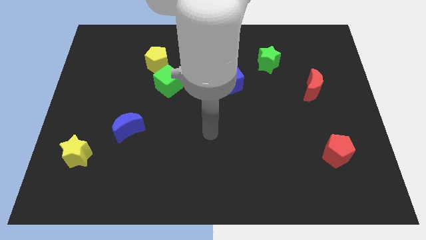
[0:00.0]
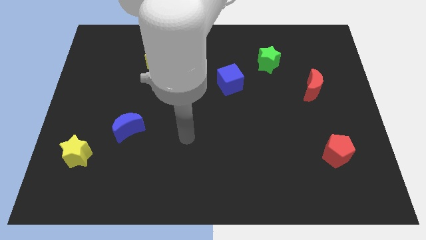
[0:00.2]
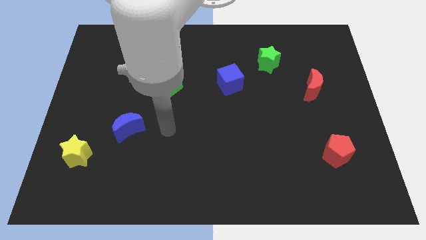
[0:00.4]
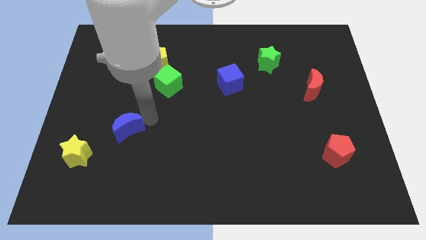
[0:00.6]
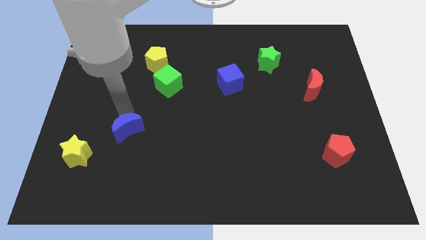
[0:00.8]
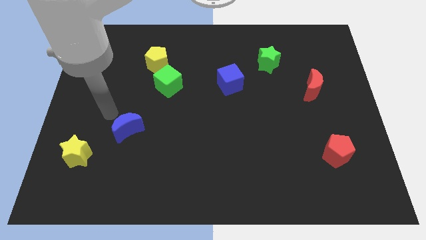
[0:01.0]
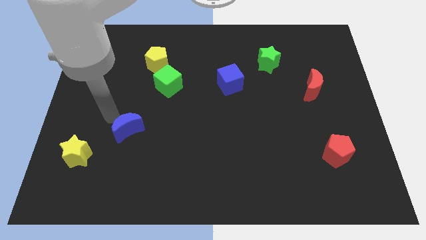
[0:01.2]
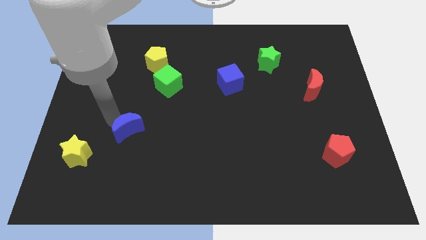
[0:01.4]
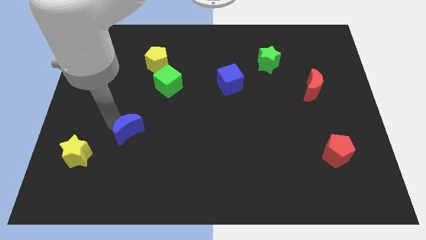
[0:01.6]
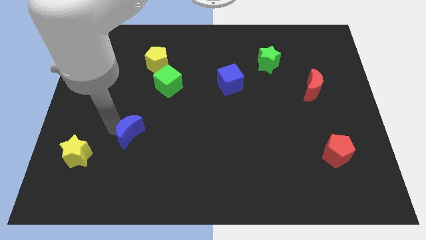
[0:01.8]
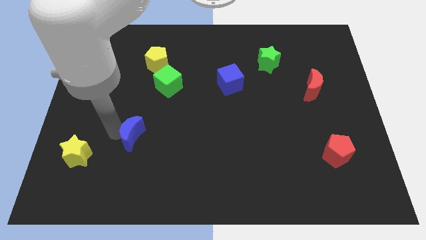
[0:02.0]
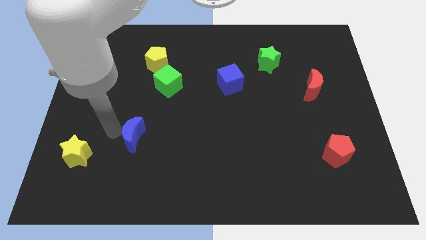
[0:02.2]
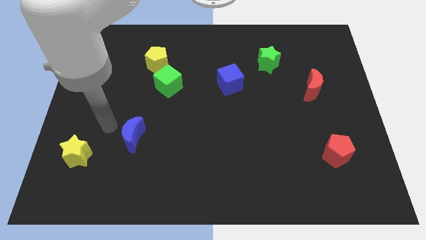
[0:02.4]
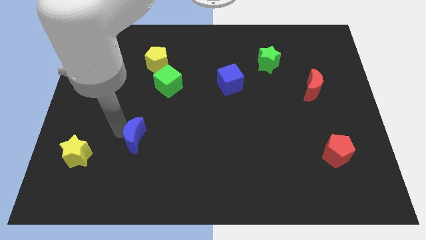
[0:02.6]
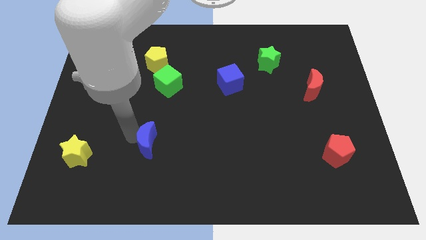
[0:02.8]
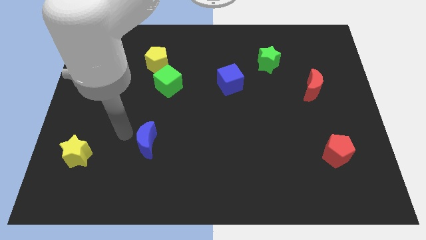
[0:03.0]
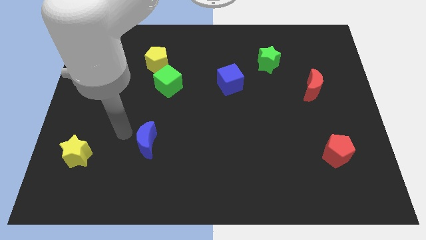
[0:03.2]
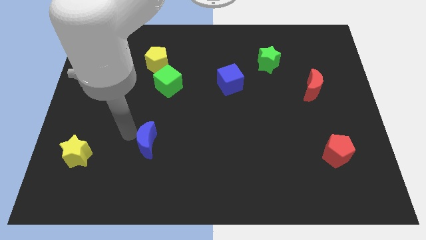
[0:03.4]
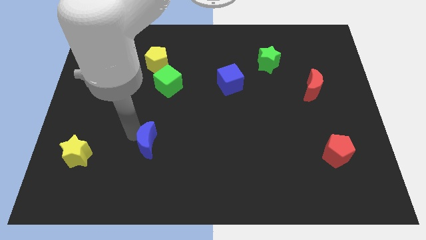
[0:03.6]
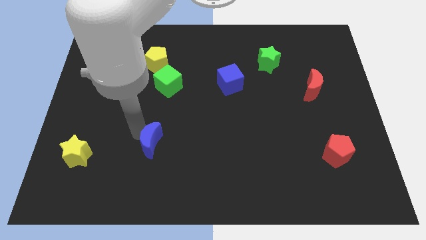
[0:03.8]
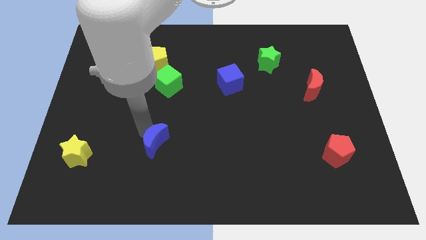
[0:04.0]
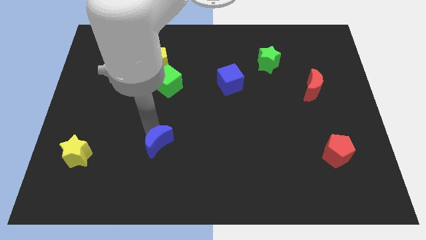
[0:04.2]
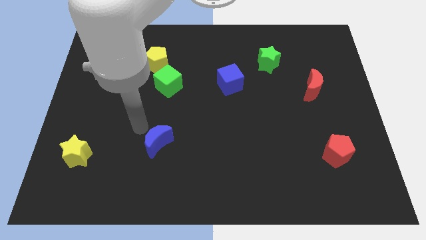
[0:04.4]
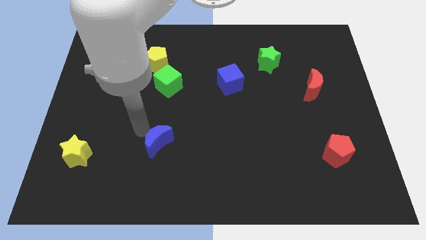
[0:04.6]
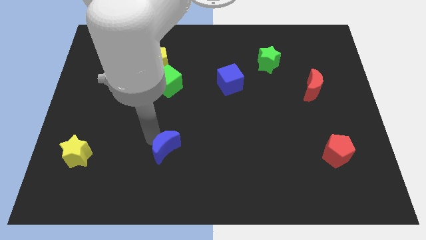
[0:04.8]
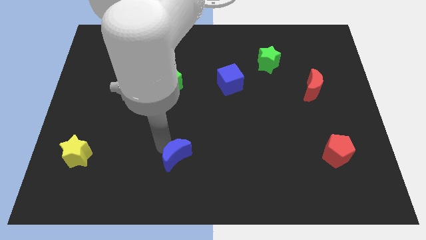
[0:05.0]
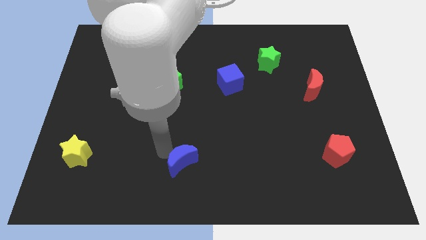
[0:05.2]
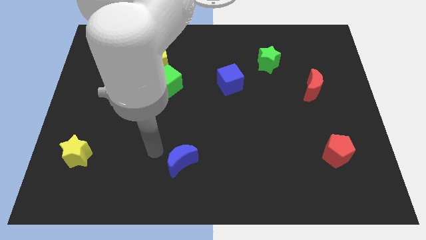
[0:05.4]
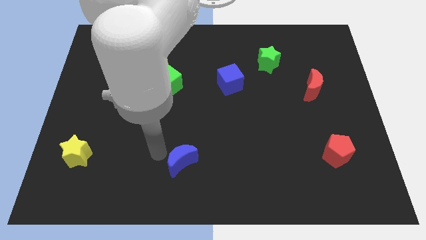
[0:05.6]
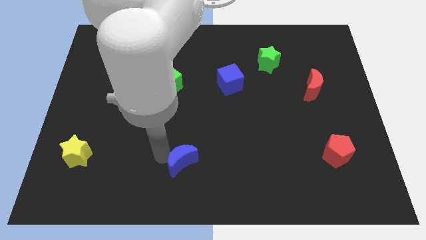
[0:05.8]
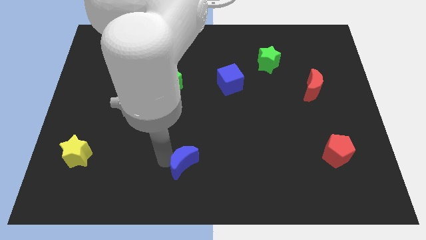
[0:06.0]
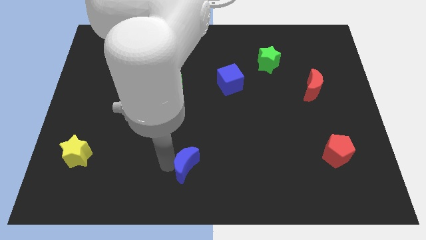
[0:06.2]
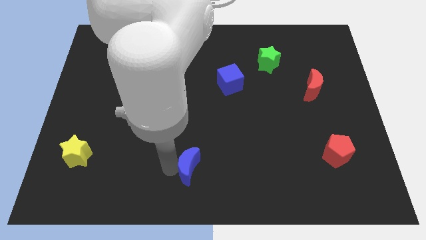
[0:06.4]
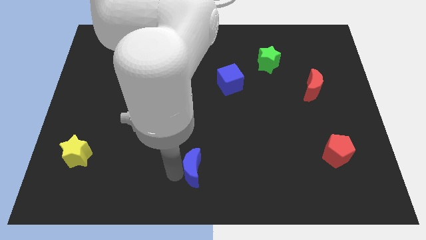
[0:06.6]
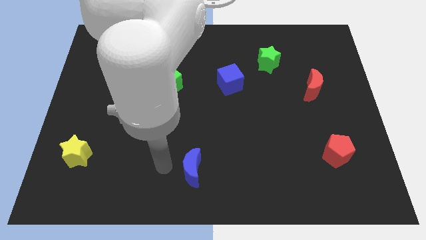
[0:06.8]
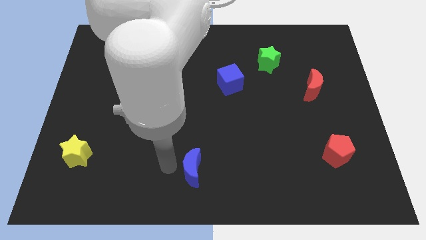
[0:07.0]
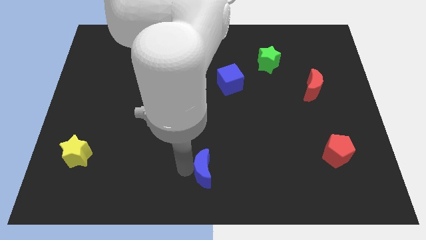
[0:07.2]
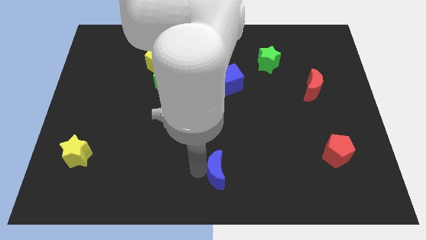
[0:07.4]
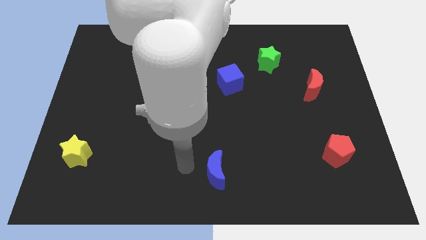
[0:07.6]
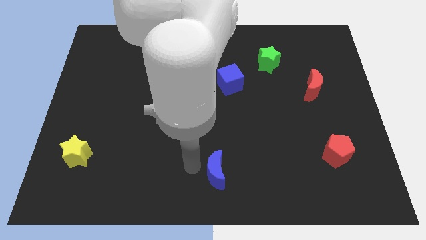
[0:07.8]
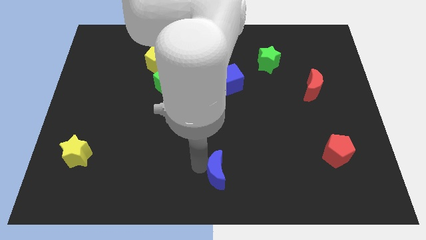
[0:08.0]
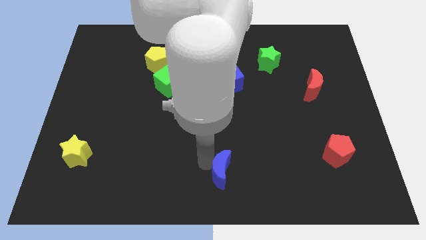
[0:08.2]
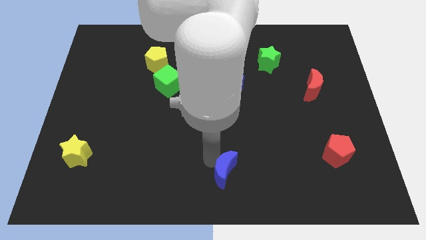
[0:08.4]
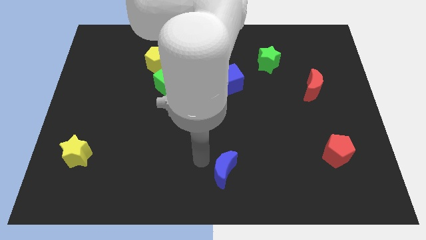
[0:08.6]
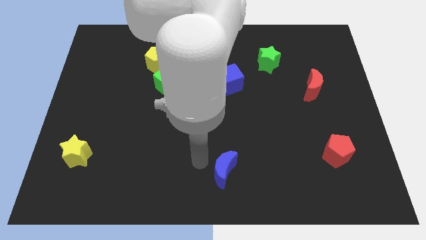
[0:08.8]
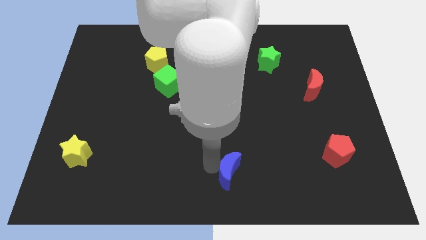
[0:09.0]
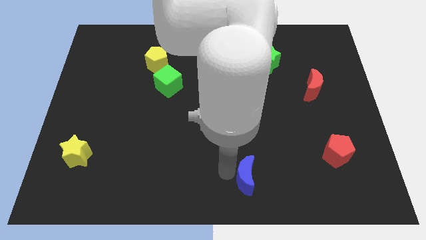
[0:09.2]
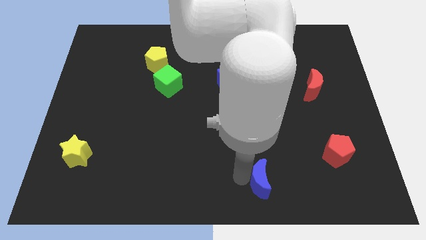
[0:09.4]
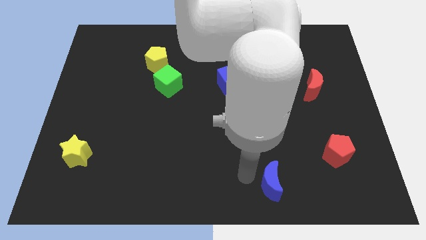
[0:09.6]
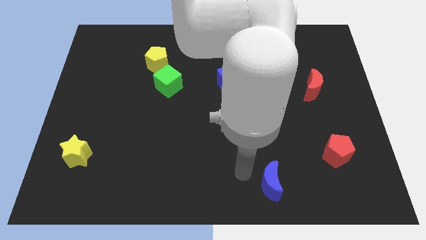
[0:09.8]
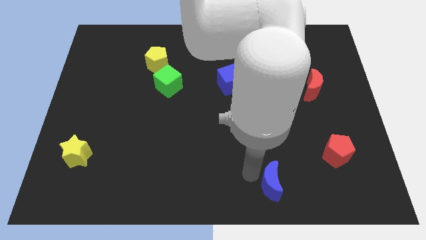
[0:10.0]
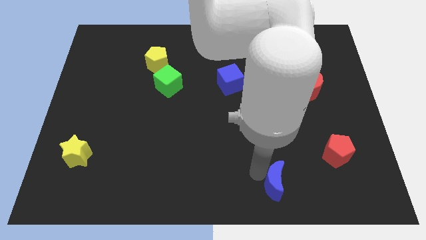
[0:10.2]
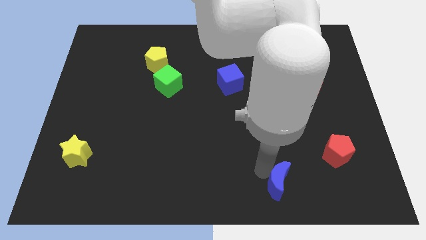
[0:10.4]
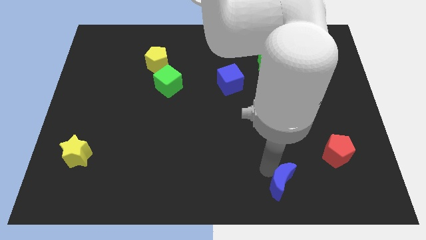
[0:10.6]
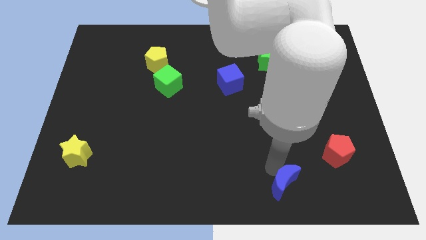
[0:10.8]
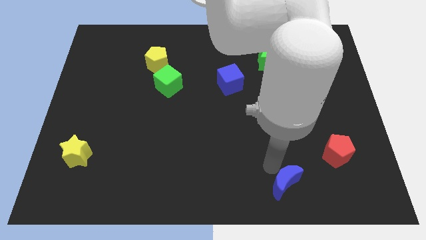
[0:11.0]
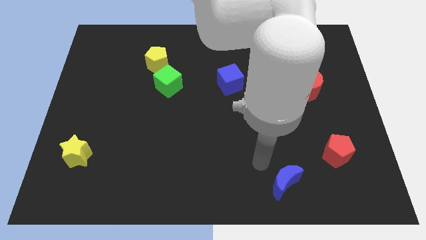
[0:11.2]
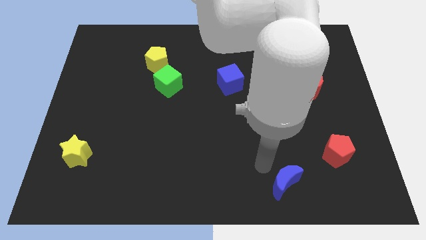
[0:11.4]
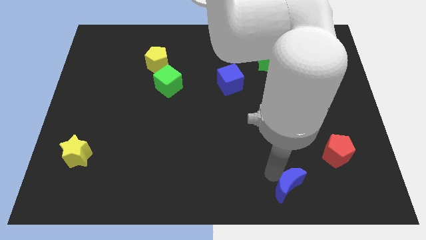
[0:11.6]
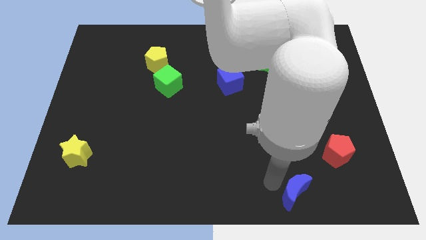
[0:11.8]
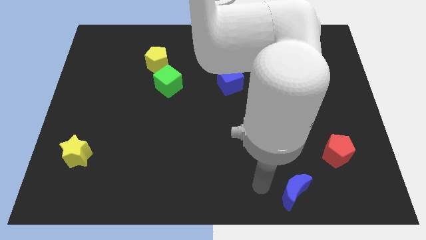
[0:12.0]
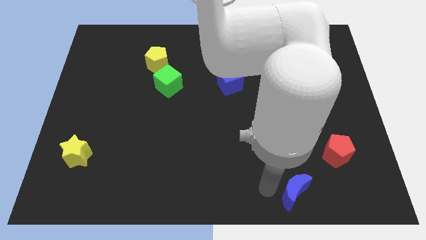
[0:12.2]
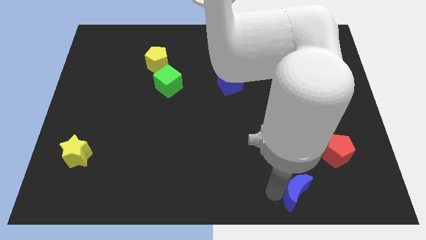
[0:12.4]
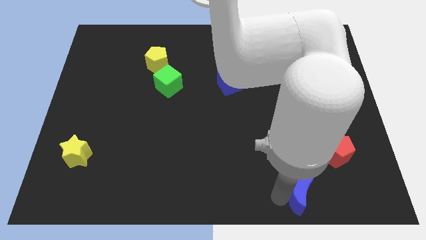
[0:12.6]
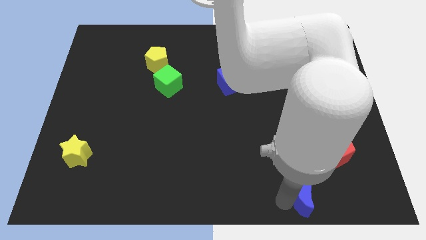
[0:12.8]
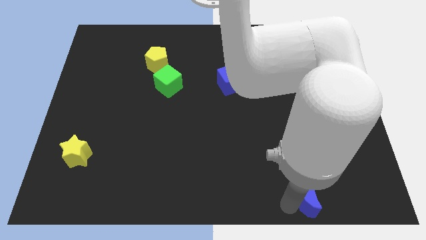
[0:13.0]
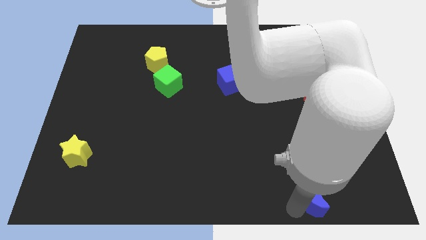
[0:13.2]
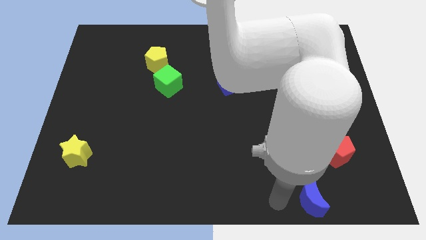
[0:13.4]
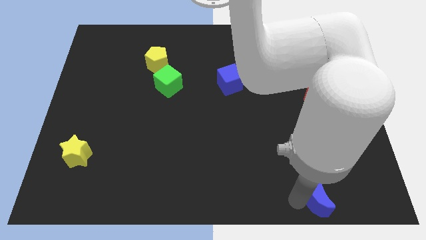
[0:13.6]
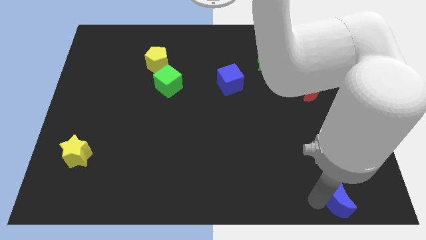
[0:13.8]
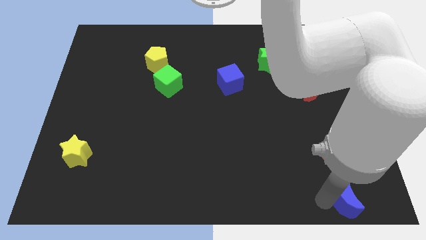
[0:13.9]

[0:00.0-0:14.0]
move the blue moon to the bottom right

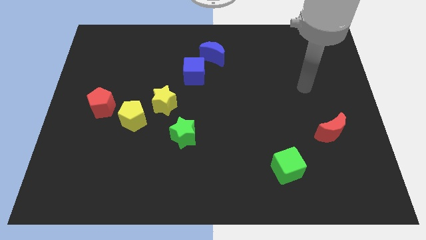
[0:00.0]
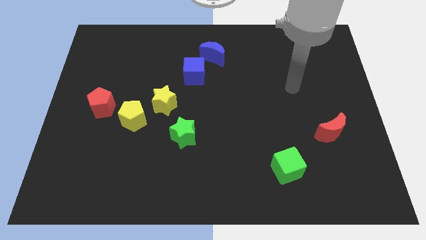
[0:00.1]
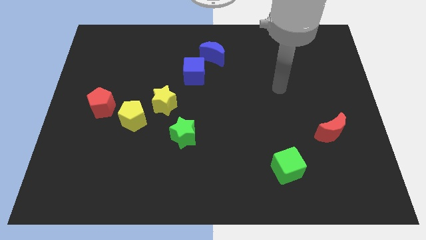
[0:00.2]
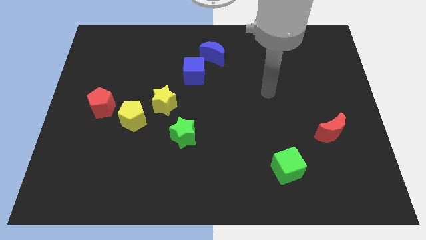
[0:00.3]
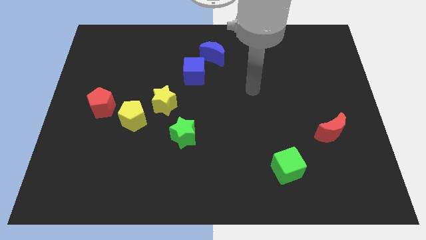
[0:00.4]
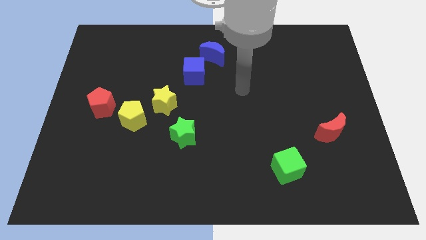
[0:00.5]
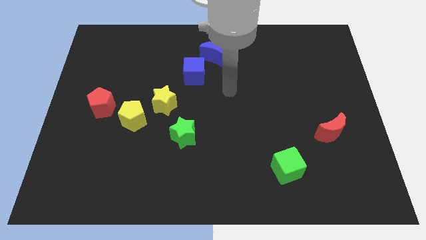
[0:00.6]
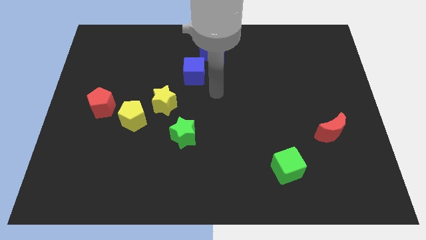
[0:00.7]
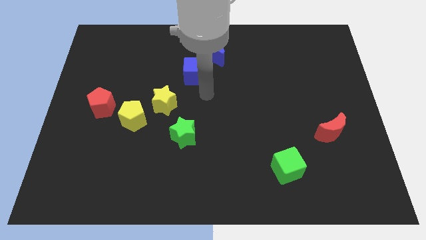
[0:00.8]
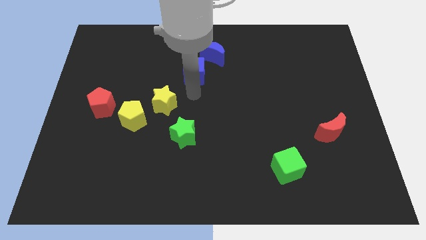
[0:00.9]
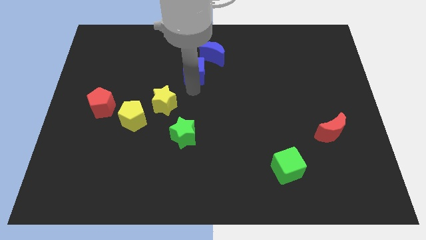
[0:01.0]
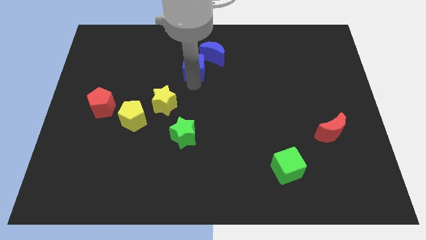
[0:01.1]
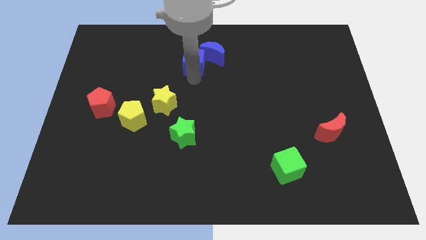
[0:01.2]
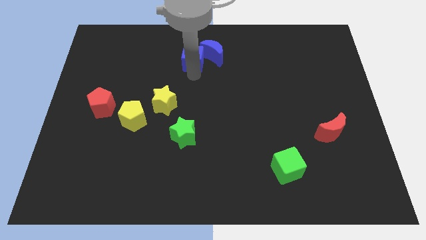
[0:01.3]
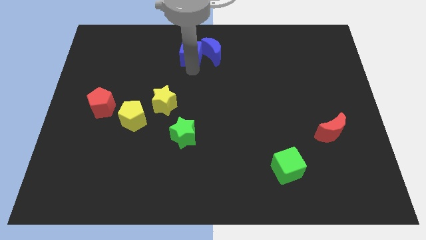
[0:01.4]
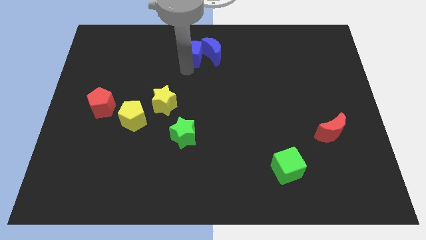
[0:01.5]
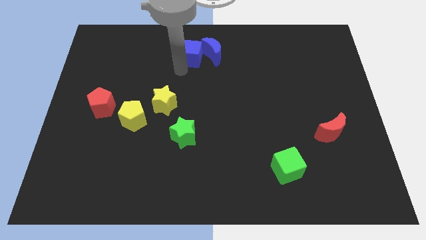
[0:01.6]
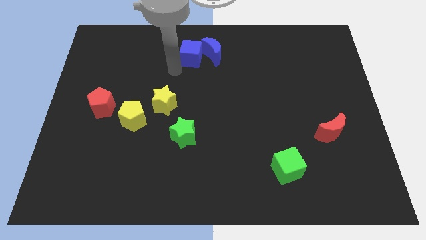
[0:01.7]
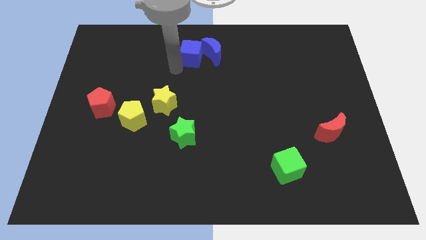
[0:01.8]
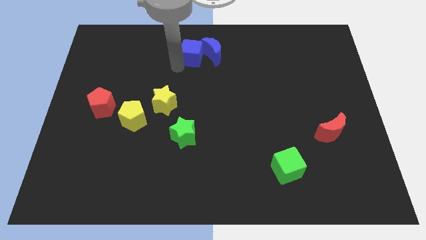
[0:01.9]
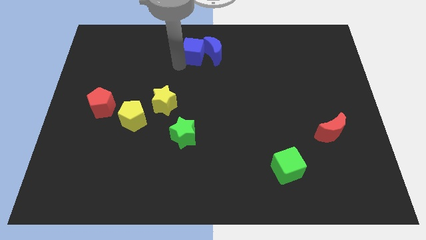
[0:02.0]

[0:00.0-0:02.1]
push the blue cube to the towards your base
